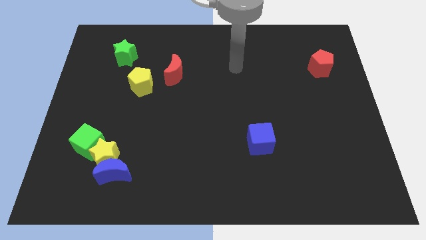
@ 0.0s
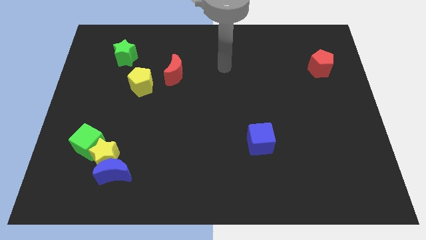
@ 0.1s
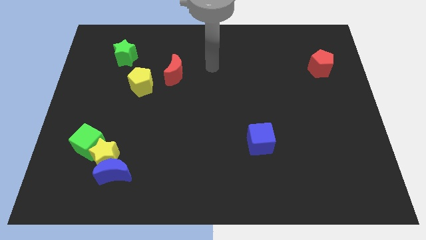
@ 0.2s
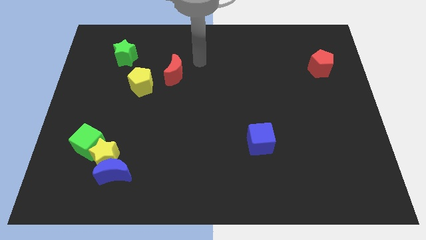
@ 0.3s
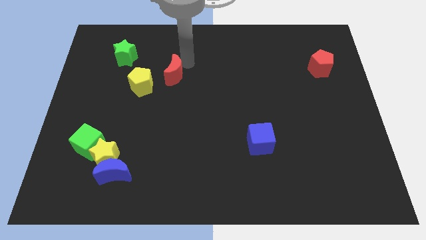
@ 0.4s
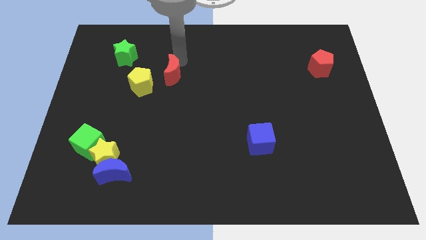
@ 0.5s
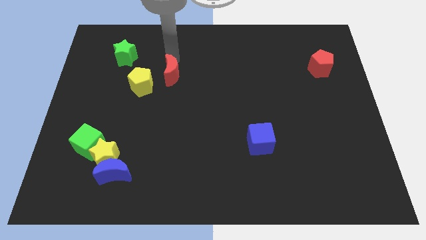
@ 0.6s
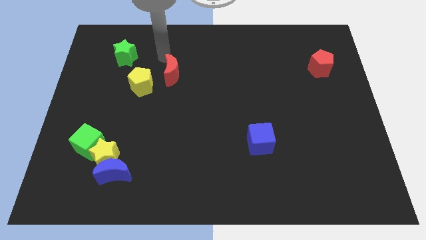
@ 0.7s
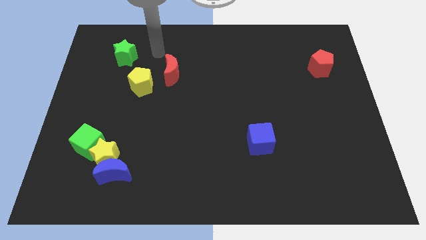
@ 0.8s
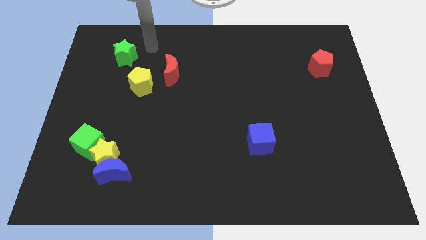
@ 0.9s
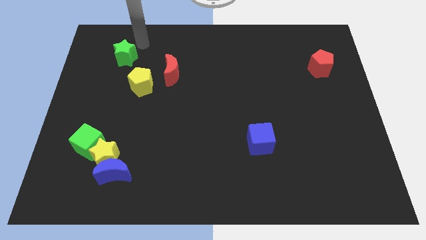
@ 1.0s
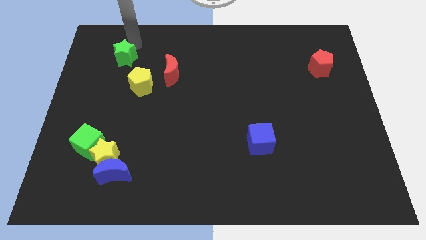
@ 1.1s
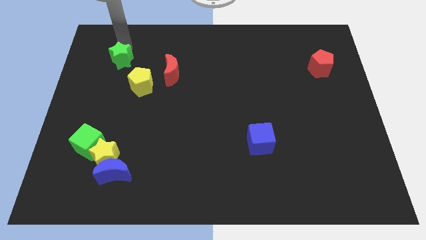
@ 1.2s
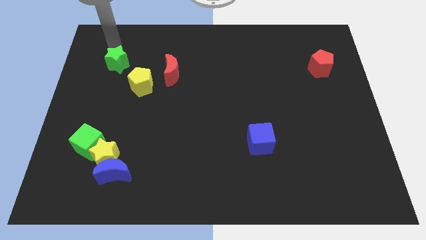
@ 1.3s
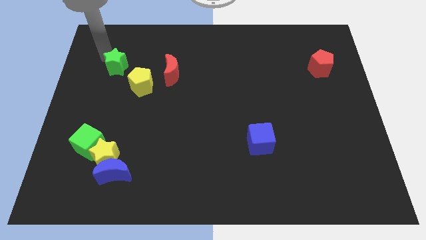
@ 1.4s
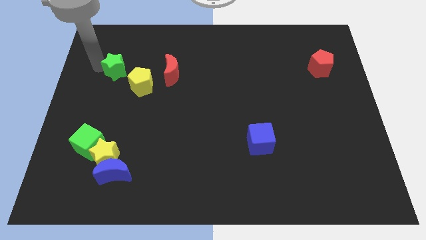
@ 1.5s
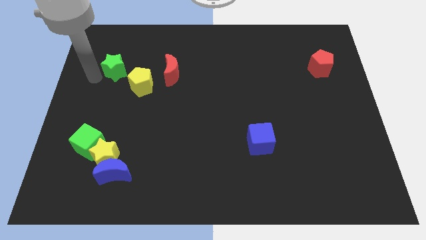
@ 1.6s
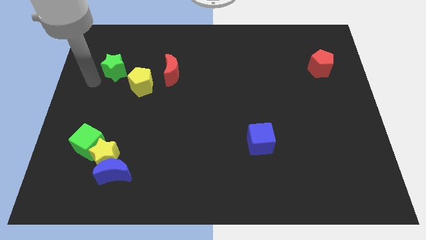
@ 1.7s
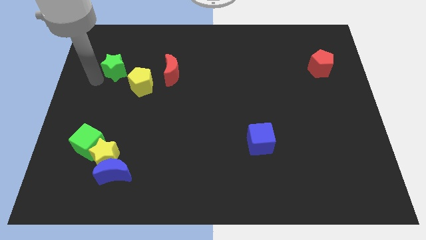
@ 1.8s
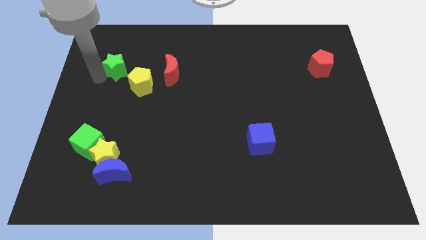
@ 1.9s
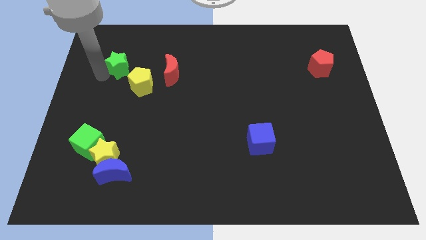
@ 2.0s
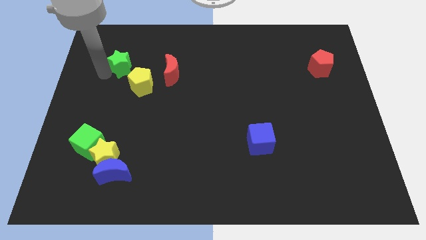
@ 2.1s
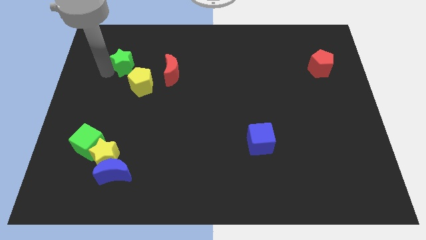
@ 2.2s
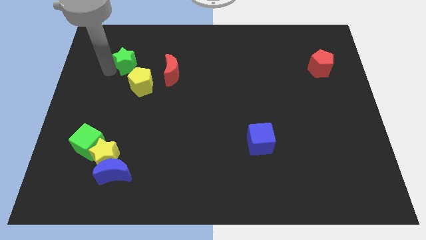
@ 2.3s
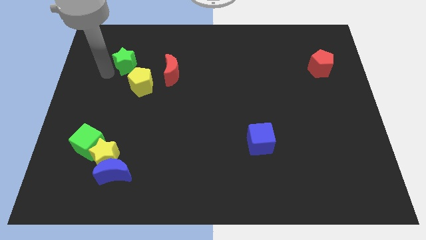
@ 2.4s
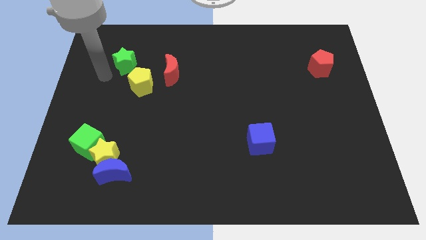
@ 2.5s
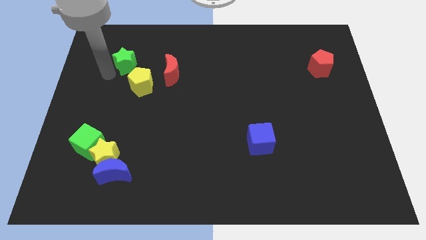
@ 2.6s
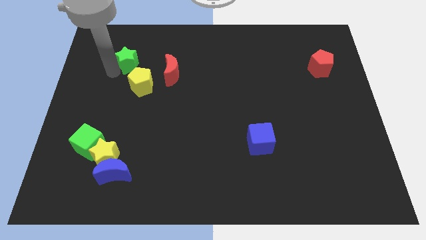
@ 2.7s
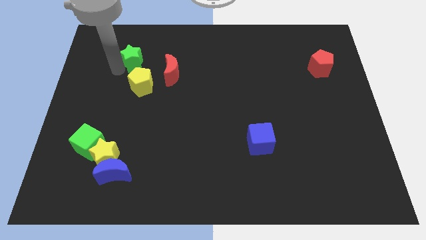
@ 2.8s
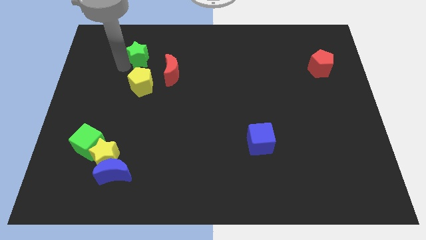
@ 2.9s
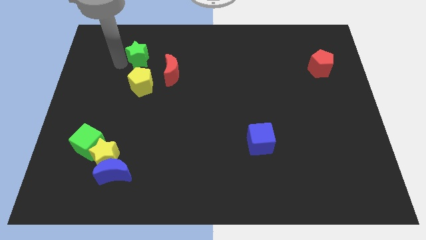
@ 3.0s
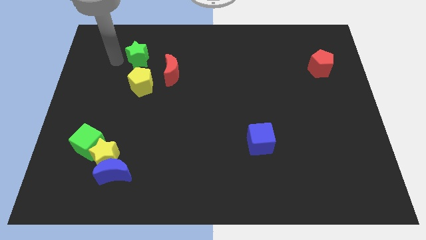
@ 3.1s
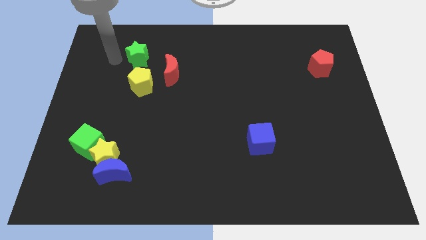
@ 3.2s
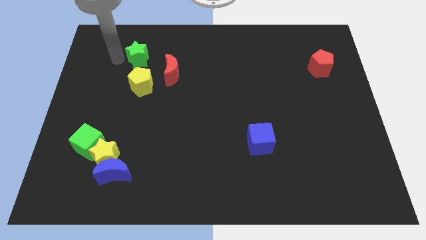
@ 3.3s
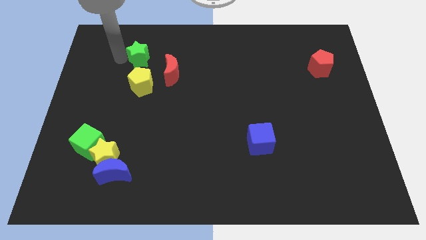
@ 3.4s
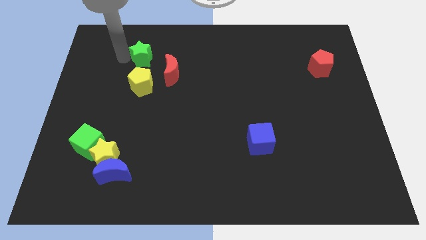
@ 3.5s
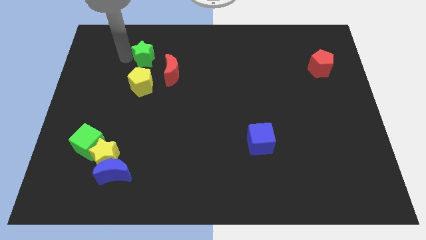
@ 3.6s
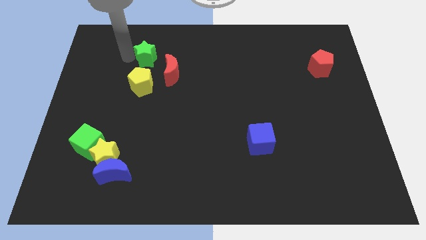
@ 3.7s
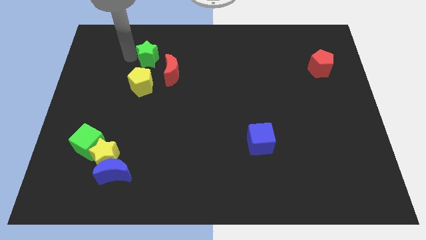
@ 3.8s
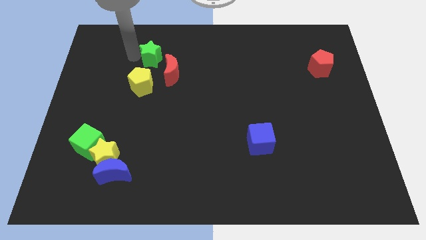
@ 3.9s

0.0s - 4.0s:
push the green star right slightly

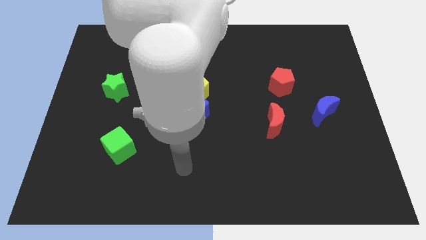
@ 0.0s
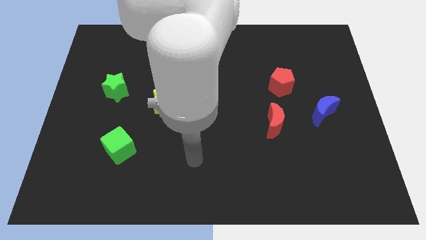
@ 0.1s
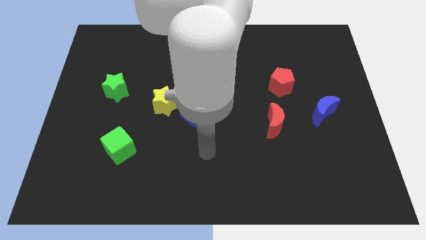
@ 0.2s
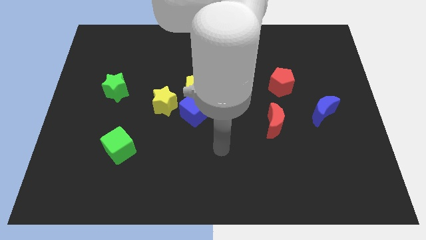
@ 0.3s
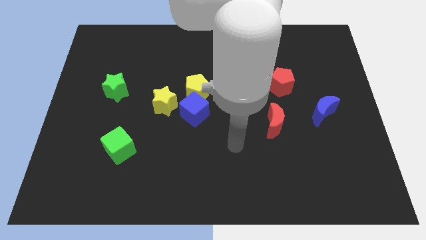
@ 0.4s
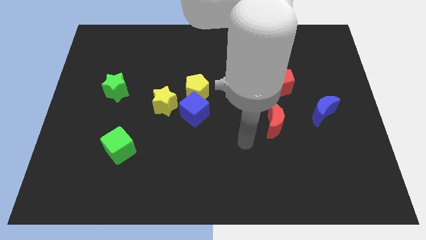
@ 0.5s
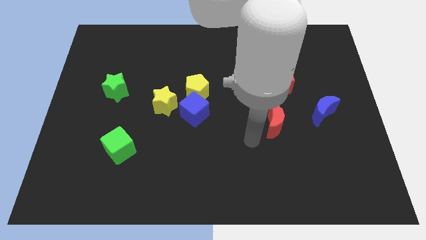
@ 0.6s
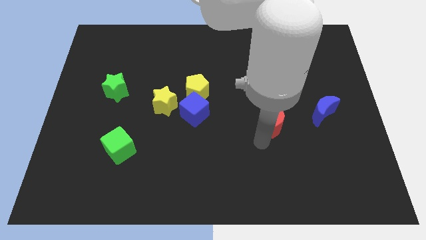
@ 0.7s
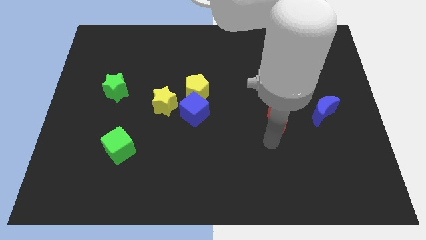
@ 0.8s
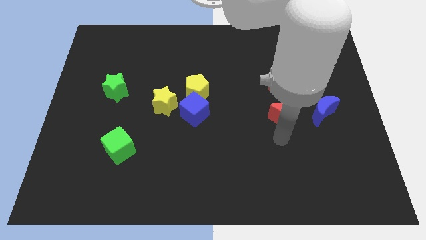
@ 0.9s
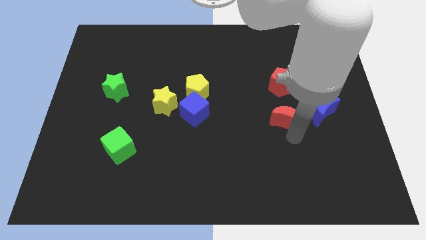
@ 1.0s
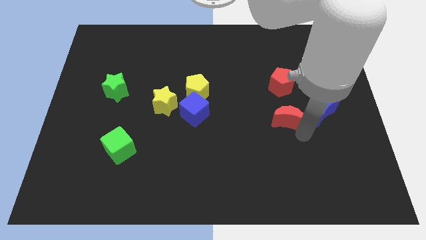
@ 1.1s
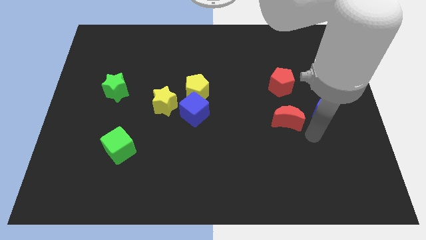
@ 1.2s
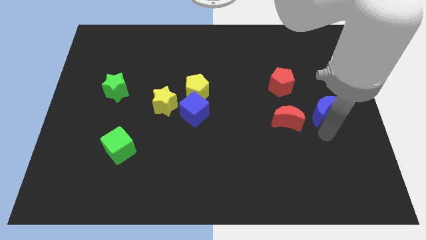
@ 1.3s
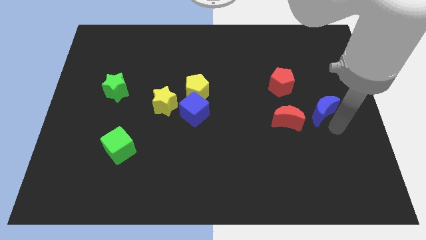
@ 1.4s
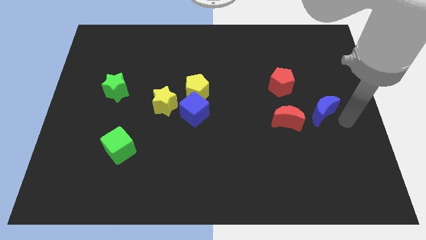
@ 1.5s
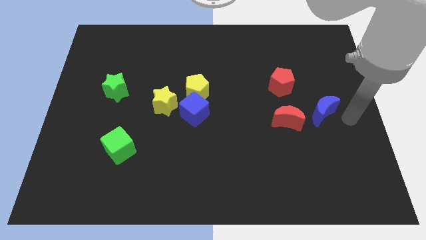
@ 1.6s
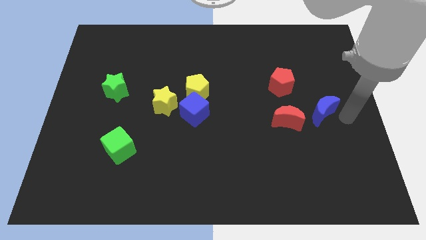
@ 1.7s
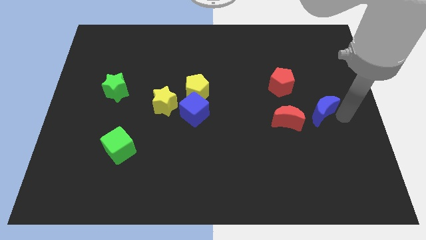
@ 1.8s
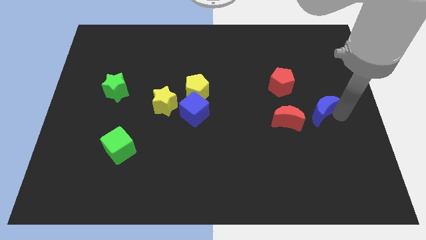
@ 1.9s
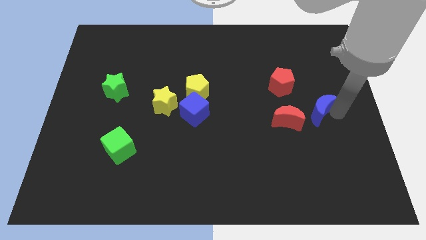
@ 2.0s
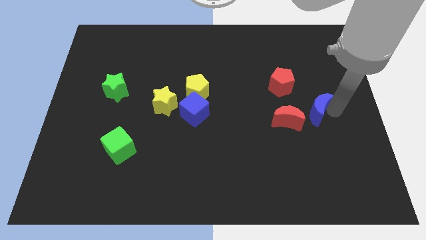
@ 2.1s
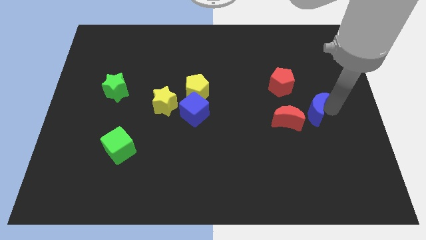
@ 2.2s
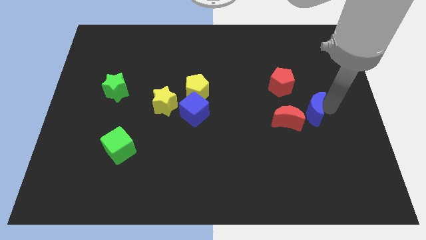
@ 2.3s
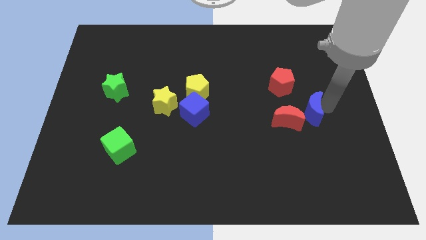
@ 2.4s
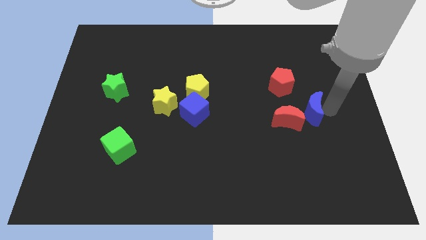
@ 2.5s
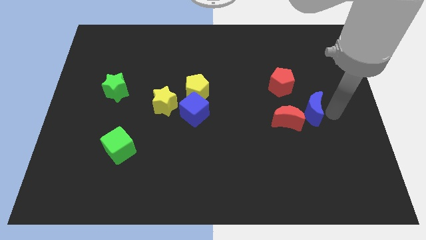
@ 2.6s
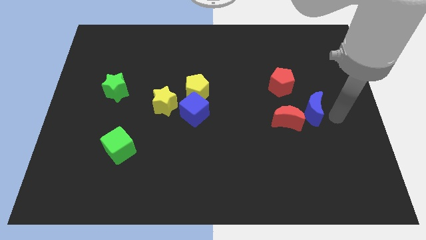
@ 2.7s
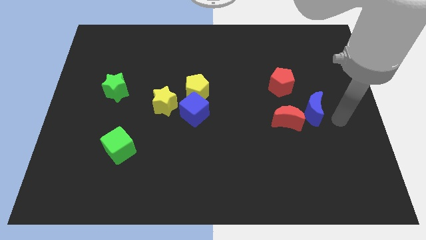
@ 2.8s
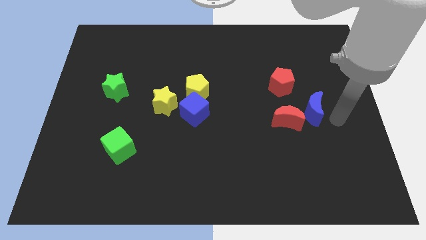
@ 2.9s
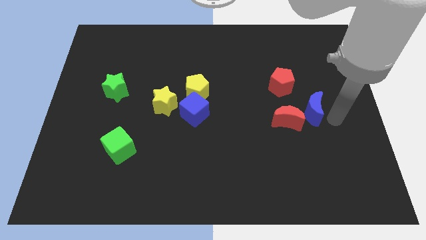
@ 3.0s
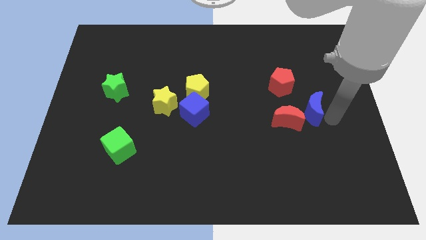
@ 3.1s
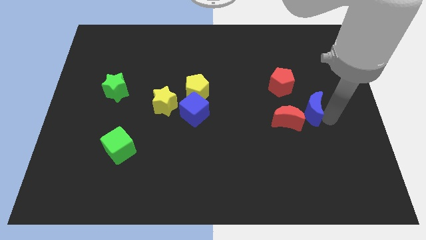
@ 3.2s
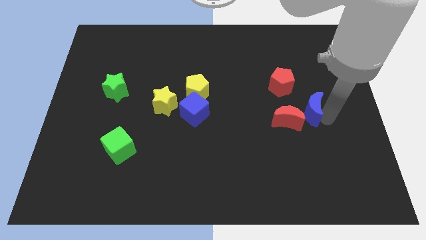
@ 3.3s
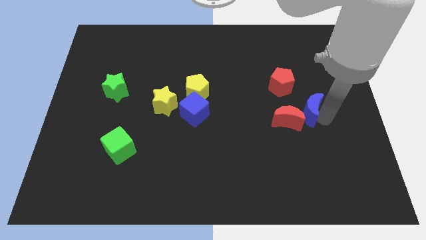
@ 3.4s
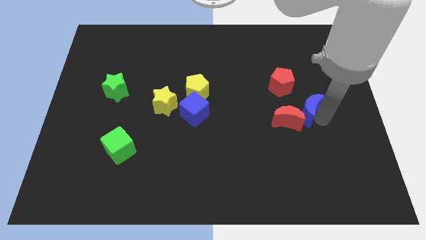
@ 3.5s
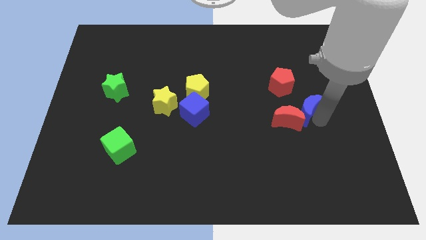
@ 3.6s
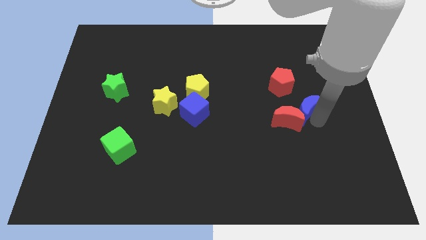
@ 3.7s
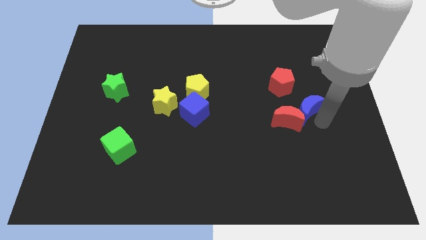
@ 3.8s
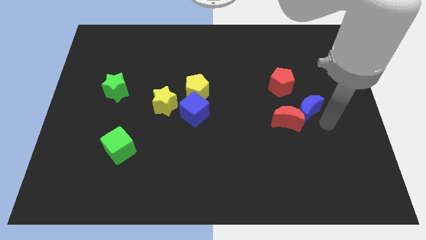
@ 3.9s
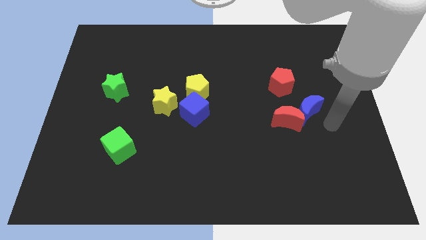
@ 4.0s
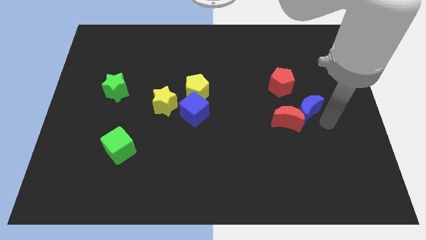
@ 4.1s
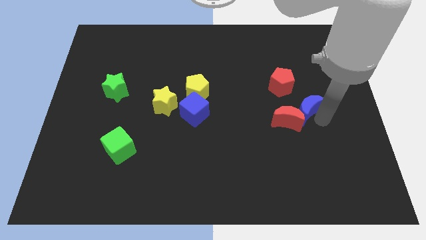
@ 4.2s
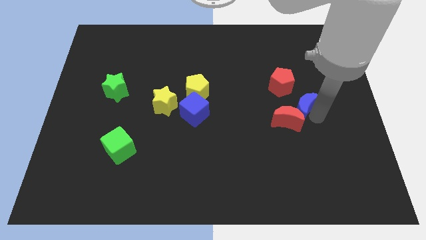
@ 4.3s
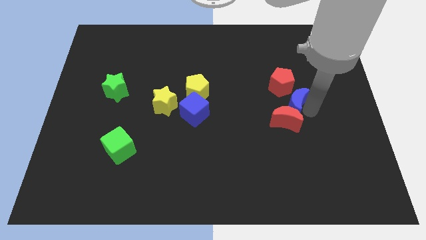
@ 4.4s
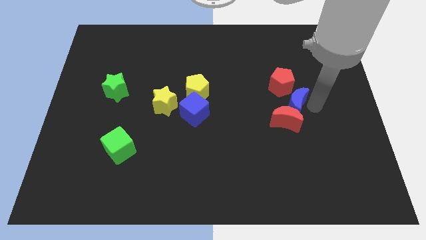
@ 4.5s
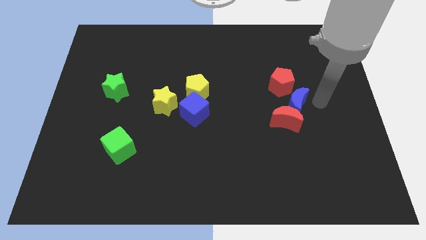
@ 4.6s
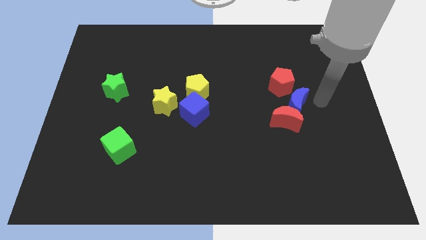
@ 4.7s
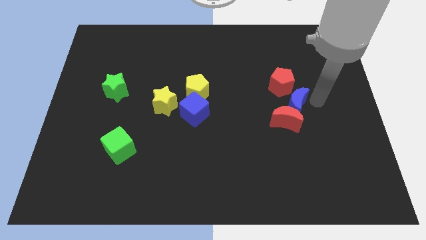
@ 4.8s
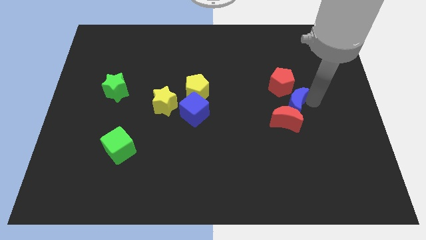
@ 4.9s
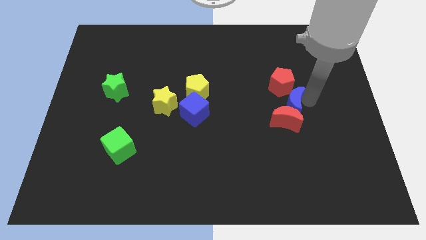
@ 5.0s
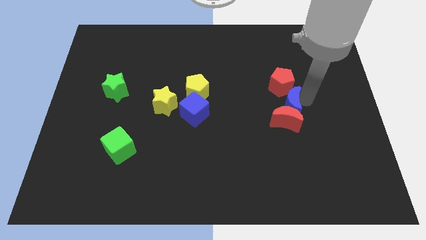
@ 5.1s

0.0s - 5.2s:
push the blue moon a bit to the left
